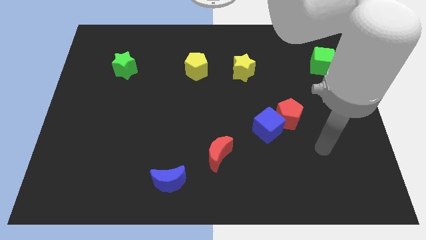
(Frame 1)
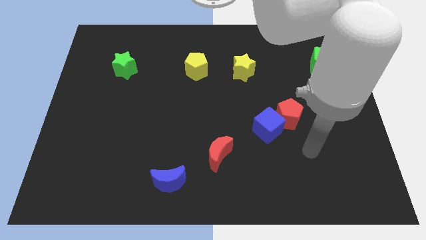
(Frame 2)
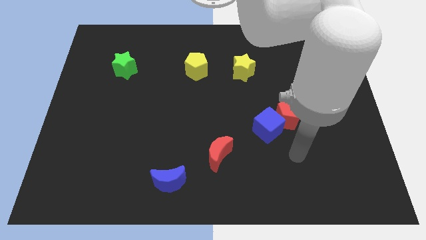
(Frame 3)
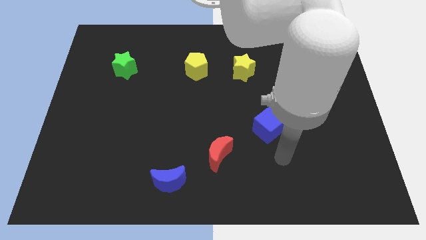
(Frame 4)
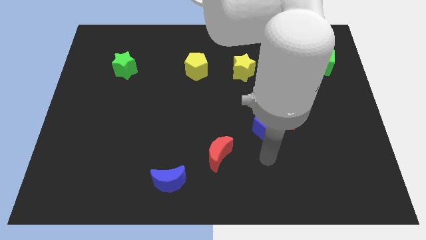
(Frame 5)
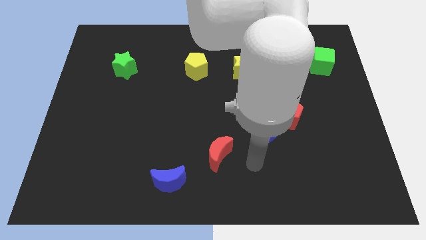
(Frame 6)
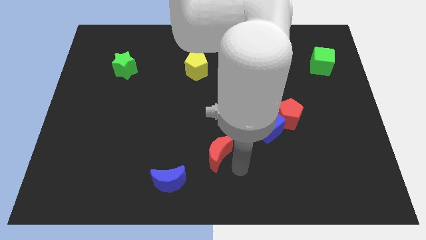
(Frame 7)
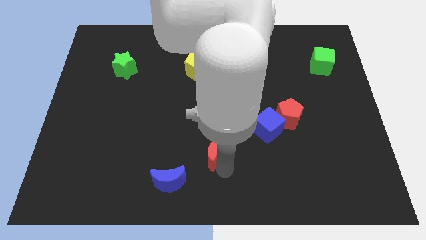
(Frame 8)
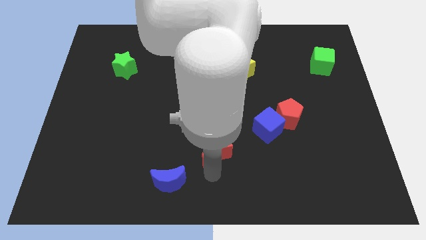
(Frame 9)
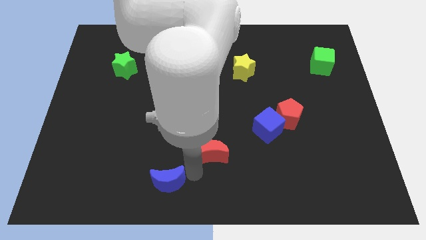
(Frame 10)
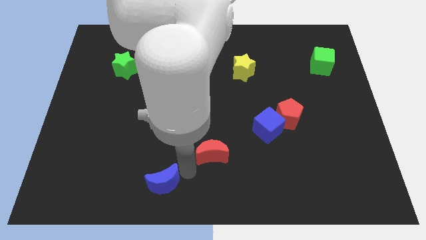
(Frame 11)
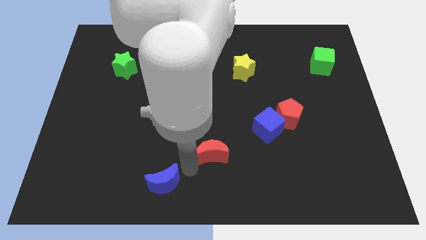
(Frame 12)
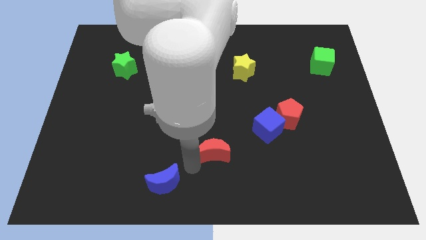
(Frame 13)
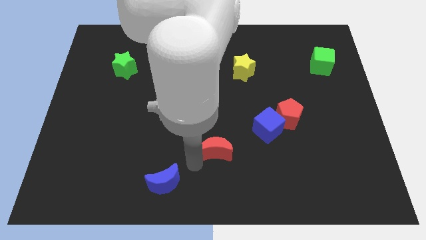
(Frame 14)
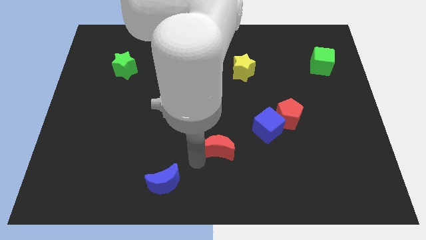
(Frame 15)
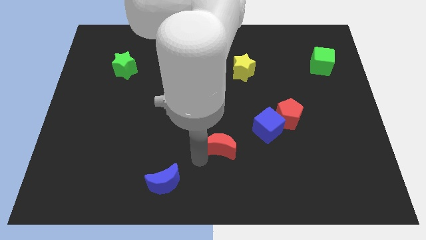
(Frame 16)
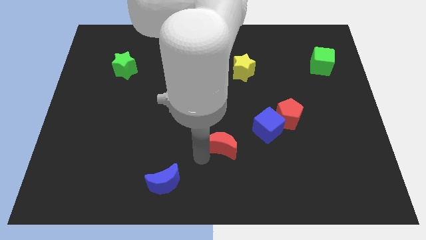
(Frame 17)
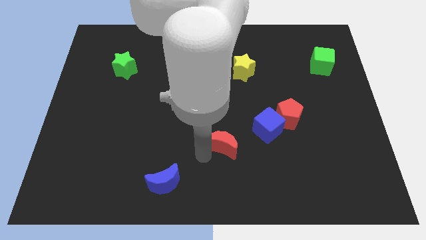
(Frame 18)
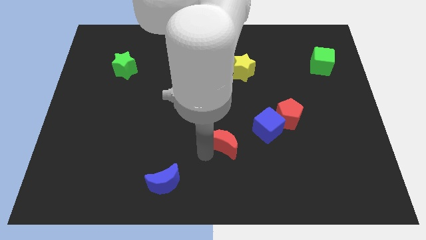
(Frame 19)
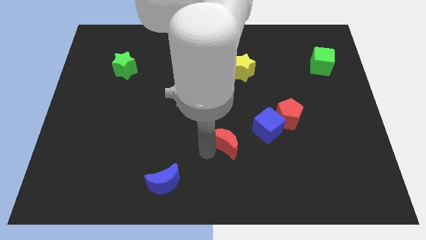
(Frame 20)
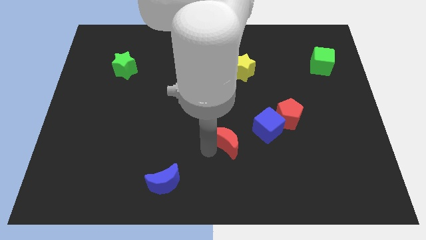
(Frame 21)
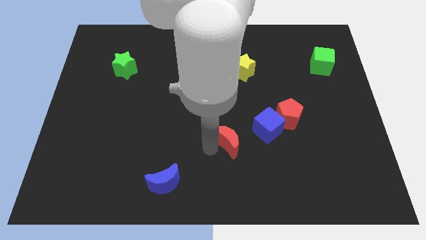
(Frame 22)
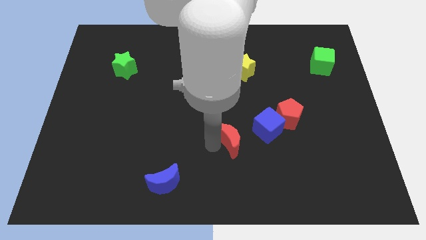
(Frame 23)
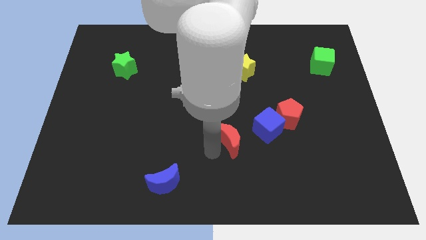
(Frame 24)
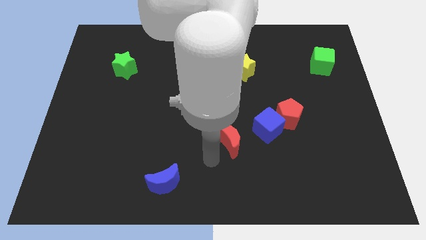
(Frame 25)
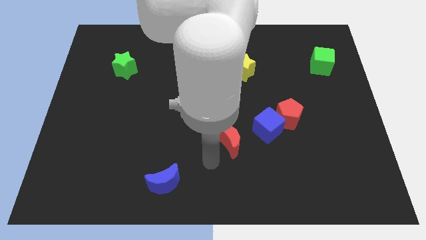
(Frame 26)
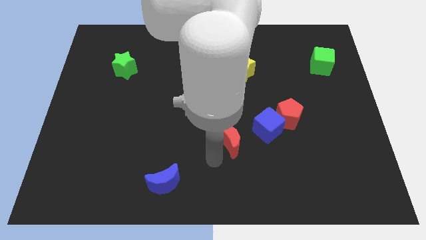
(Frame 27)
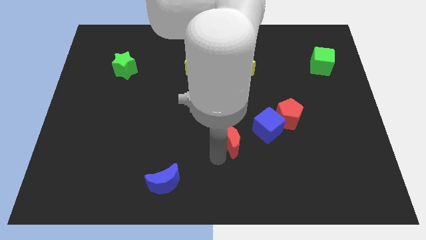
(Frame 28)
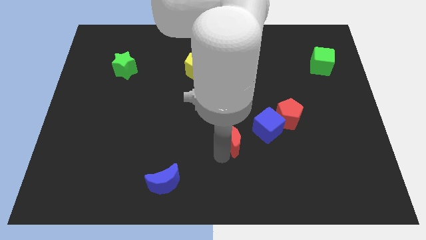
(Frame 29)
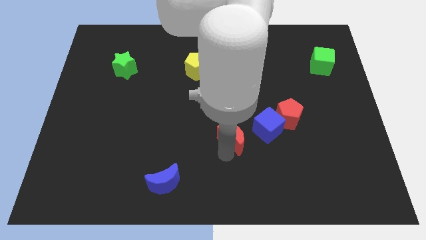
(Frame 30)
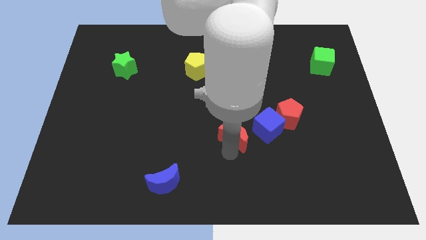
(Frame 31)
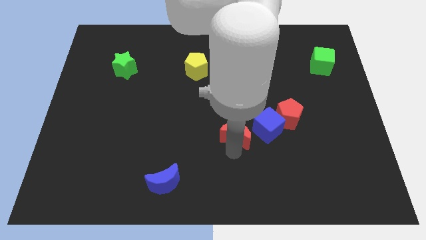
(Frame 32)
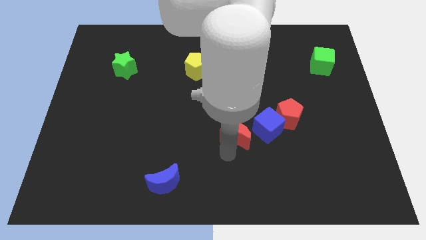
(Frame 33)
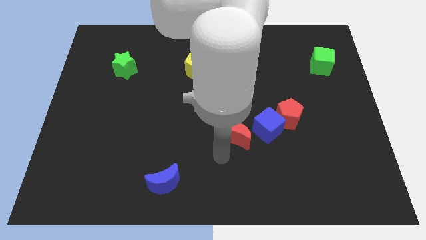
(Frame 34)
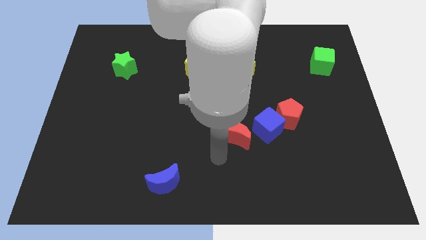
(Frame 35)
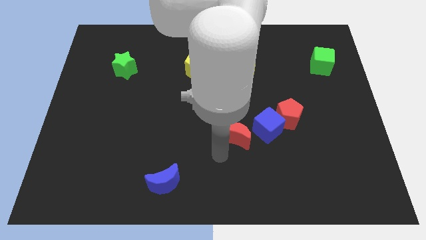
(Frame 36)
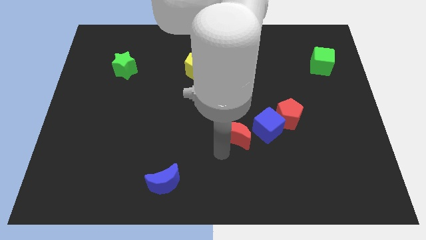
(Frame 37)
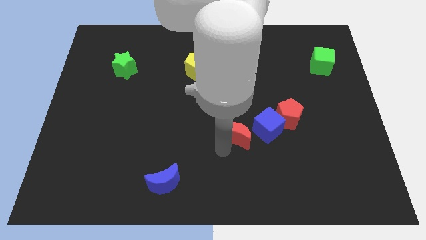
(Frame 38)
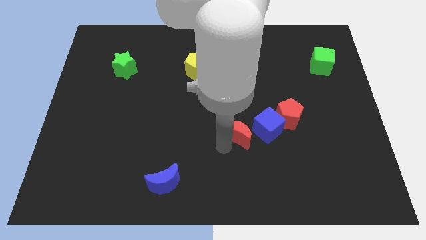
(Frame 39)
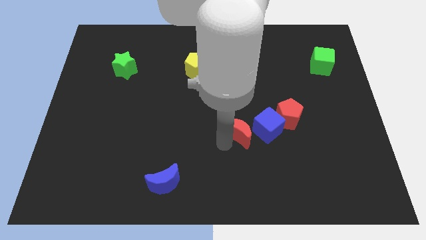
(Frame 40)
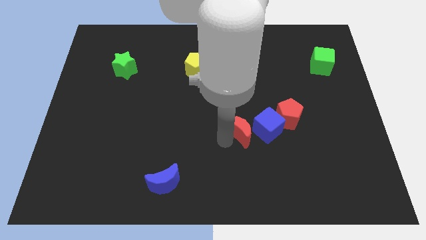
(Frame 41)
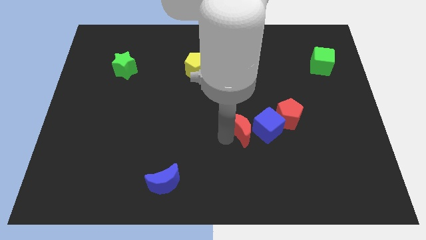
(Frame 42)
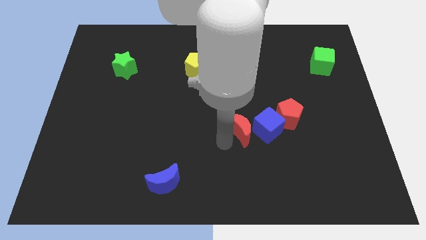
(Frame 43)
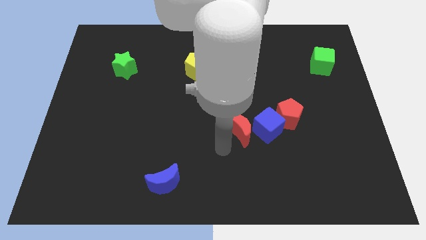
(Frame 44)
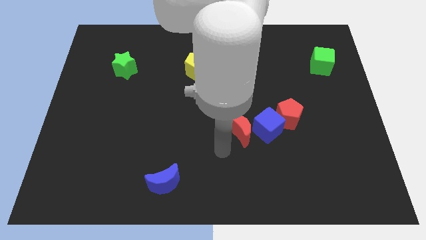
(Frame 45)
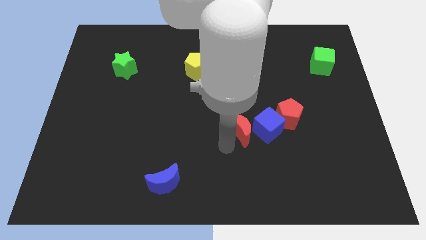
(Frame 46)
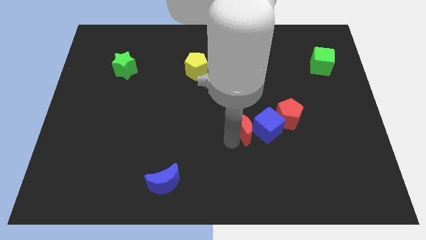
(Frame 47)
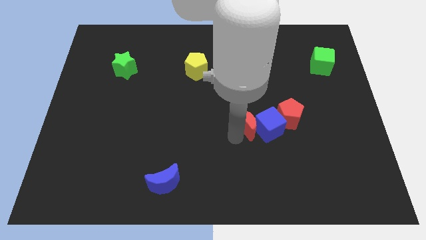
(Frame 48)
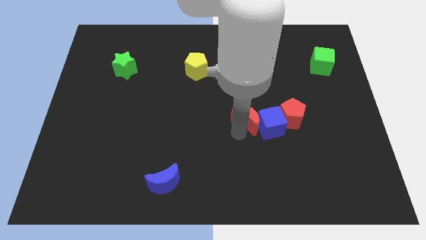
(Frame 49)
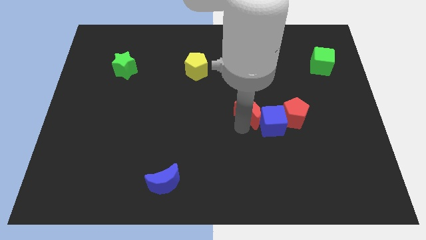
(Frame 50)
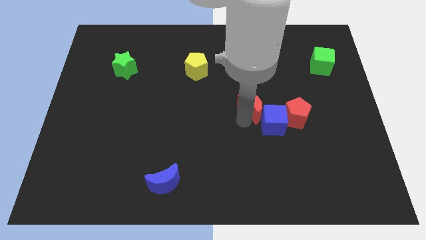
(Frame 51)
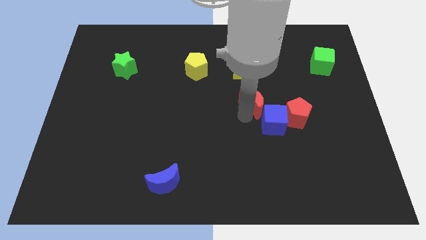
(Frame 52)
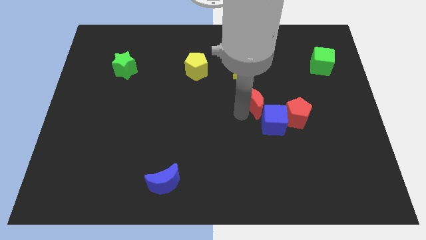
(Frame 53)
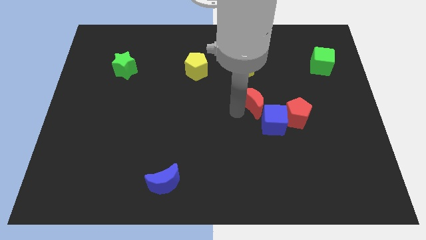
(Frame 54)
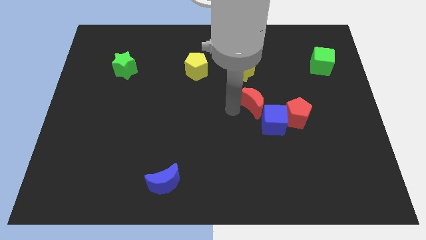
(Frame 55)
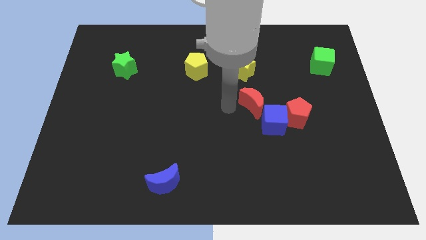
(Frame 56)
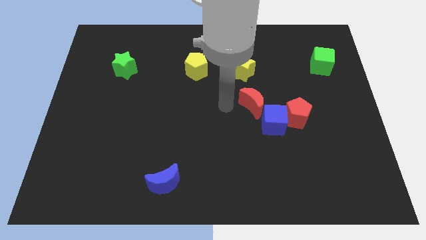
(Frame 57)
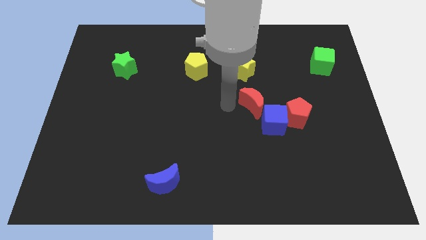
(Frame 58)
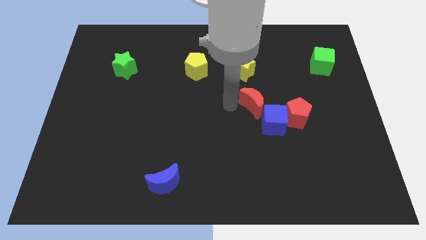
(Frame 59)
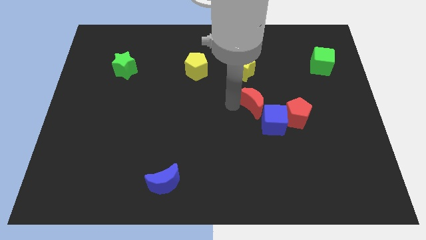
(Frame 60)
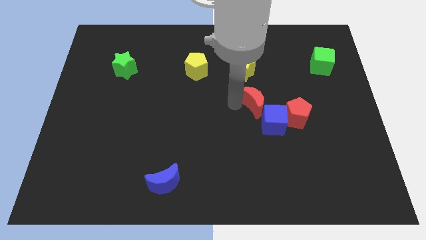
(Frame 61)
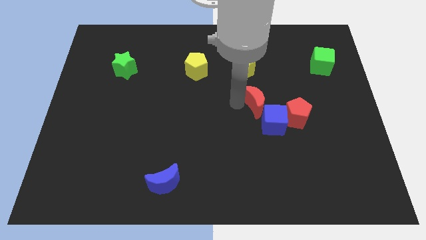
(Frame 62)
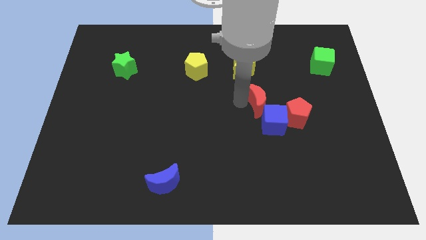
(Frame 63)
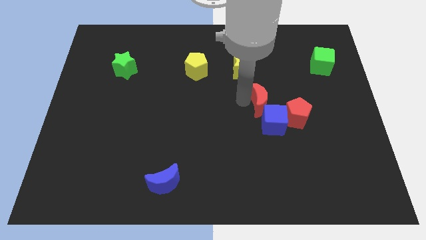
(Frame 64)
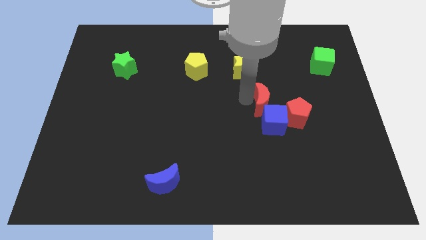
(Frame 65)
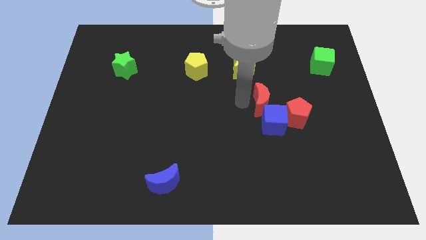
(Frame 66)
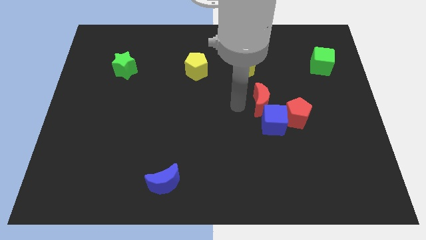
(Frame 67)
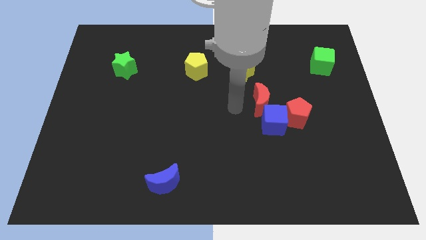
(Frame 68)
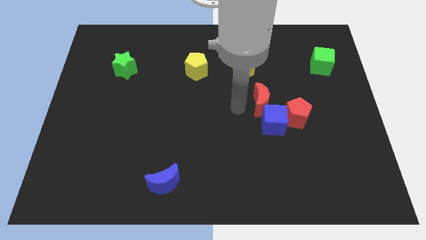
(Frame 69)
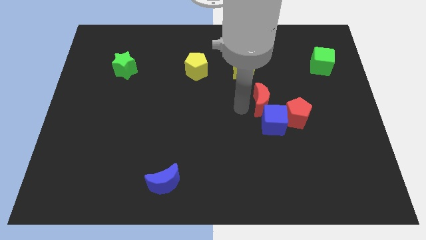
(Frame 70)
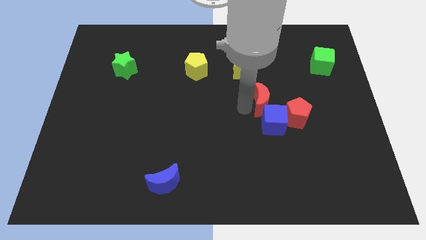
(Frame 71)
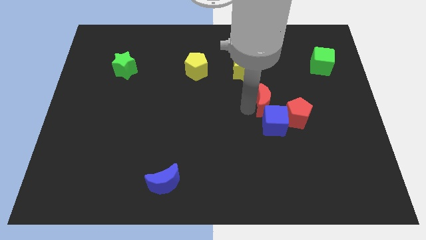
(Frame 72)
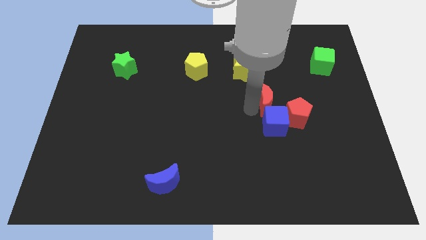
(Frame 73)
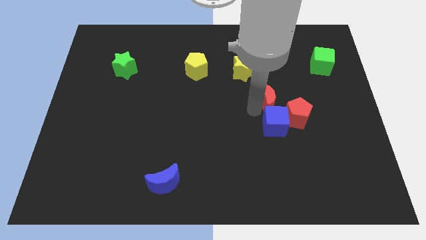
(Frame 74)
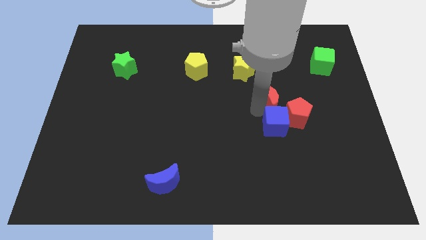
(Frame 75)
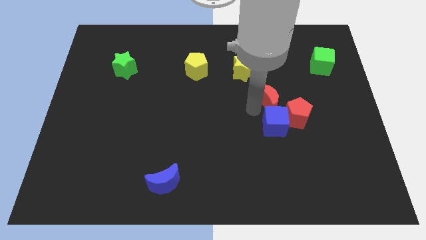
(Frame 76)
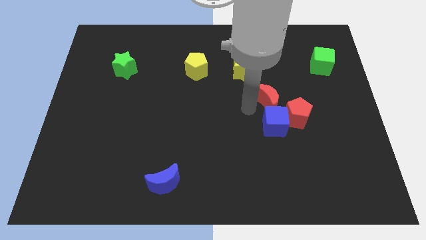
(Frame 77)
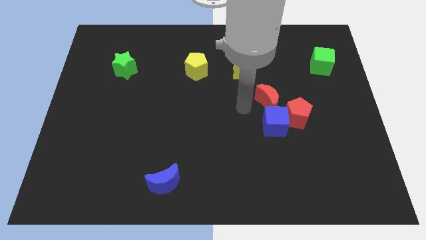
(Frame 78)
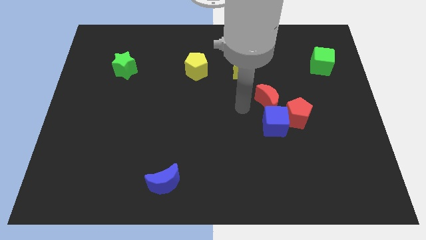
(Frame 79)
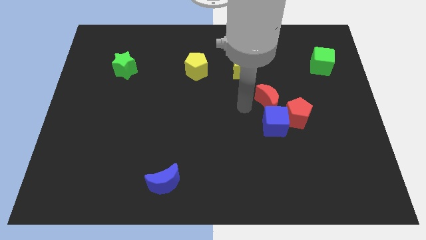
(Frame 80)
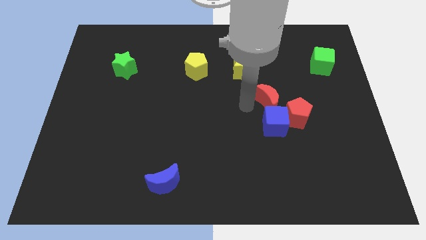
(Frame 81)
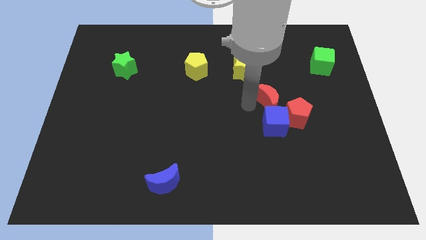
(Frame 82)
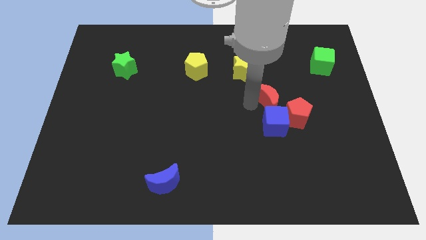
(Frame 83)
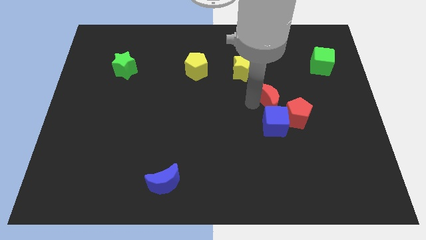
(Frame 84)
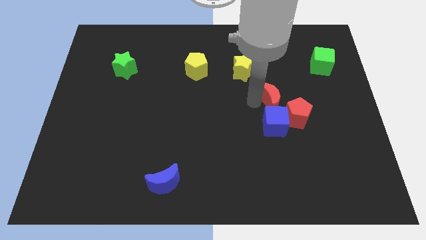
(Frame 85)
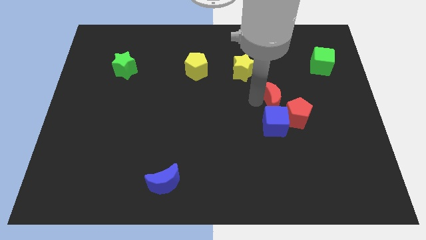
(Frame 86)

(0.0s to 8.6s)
push the red moon up and to the right diagonally
